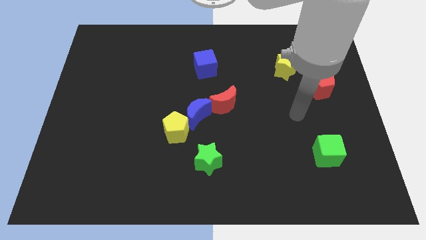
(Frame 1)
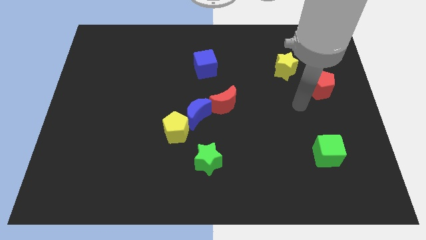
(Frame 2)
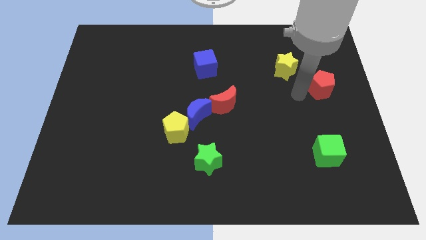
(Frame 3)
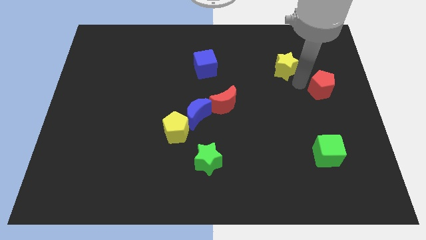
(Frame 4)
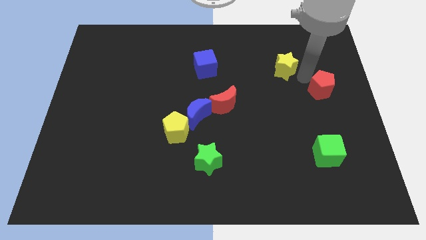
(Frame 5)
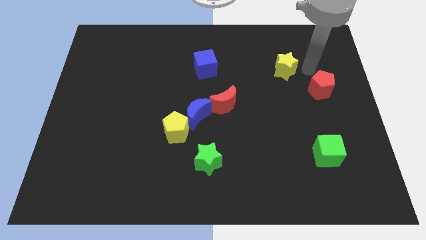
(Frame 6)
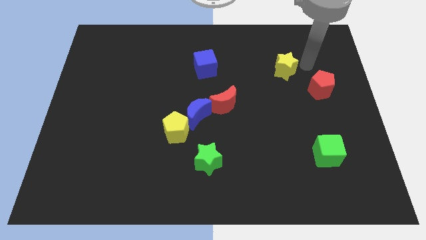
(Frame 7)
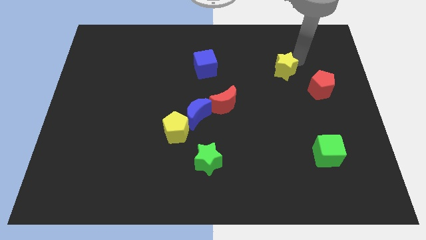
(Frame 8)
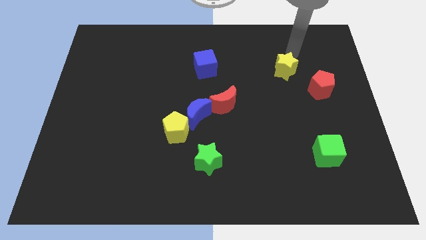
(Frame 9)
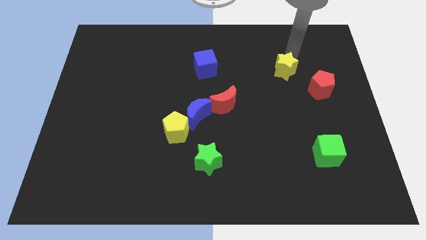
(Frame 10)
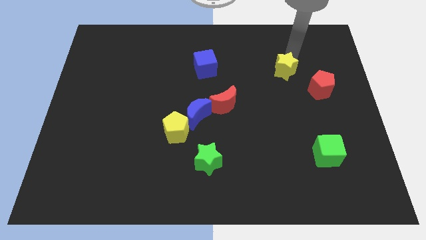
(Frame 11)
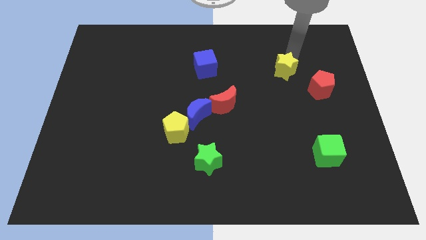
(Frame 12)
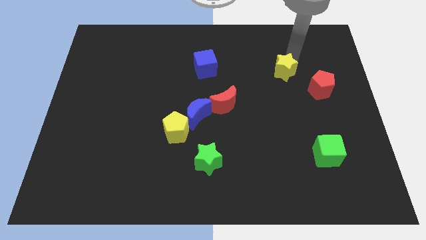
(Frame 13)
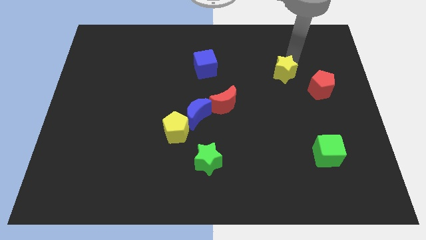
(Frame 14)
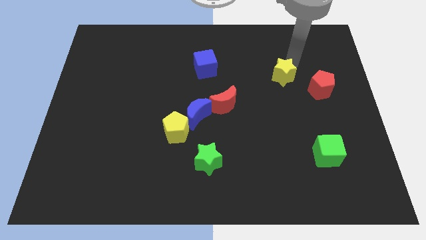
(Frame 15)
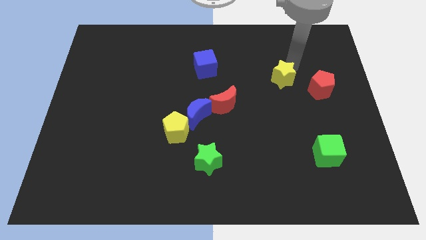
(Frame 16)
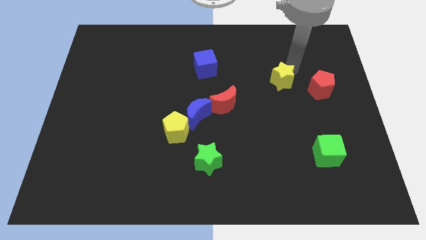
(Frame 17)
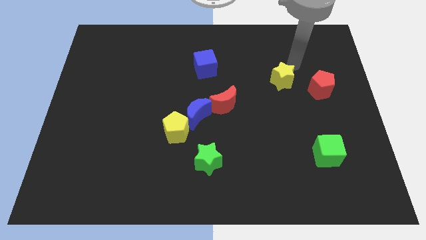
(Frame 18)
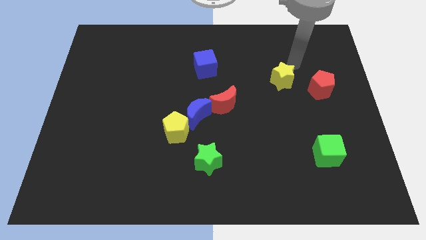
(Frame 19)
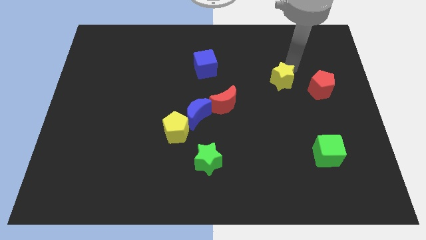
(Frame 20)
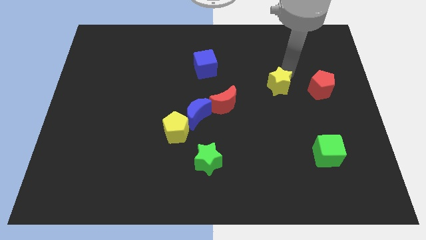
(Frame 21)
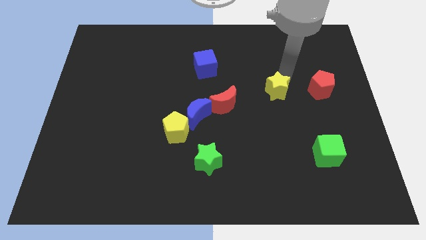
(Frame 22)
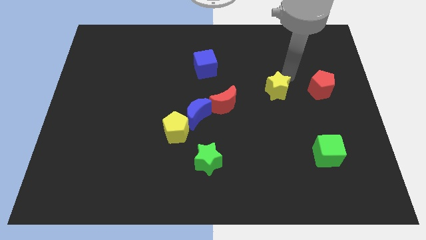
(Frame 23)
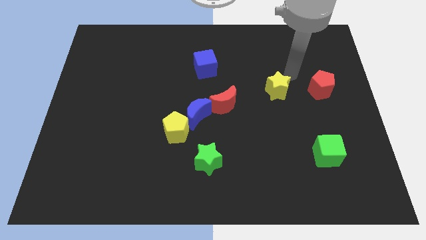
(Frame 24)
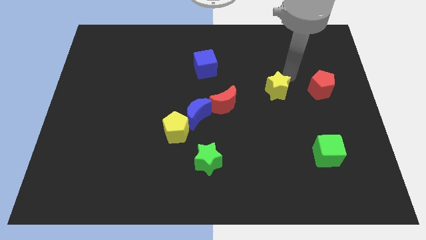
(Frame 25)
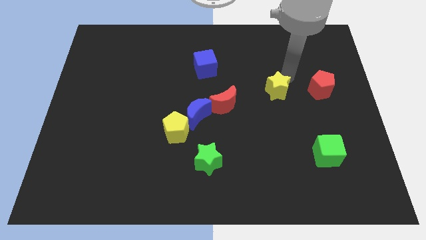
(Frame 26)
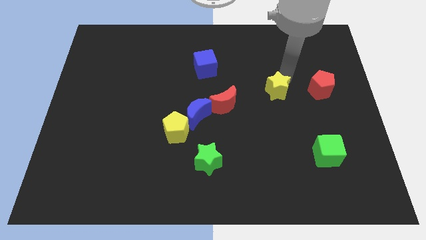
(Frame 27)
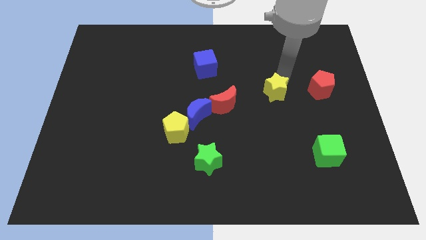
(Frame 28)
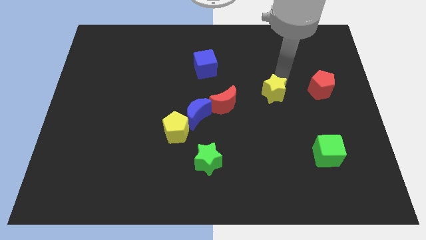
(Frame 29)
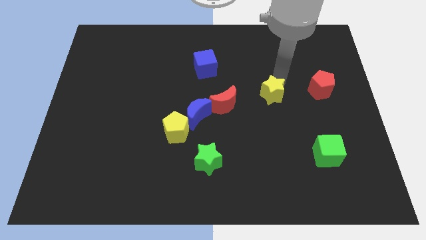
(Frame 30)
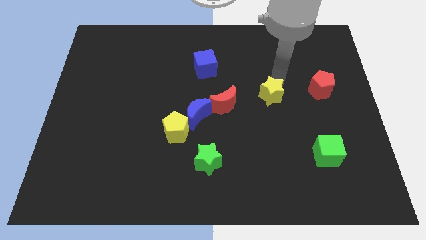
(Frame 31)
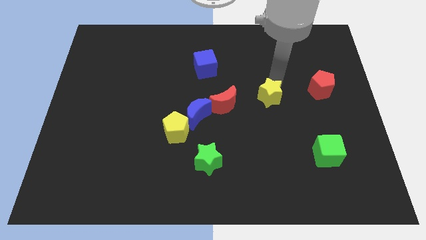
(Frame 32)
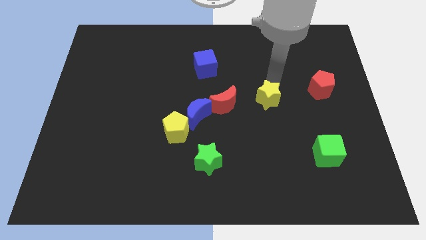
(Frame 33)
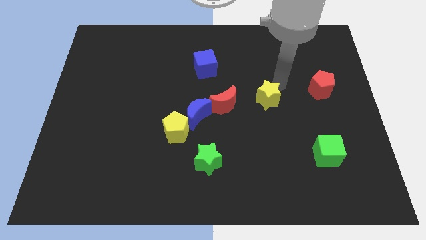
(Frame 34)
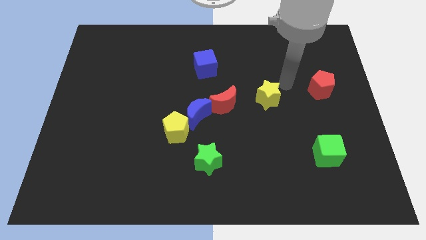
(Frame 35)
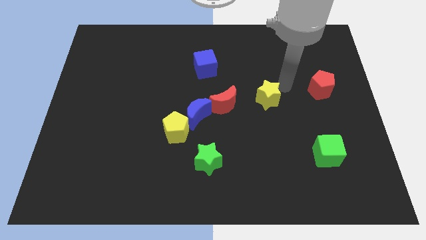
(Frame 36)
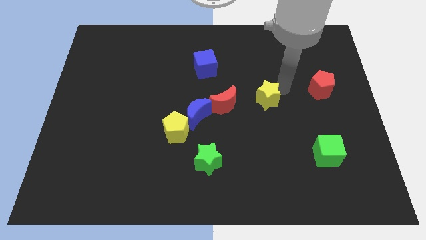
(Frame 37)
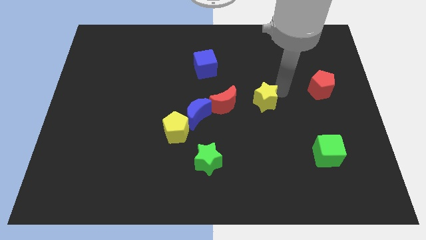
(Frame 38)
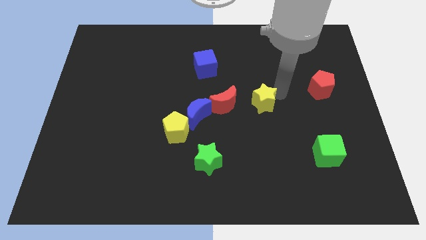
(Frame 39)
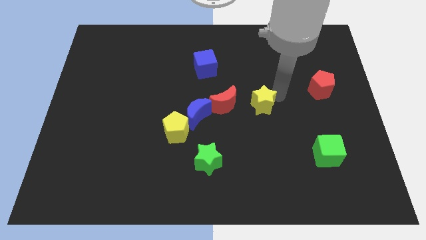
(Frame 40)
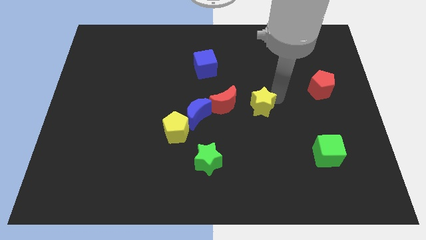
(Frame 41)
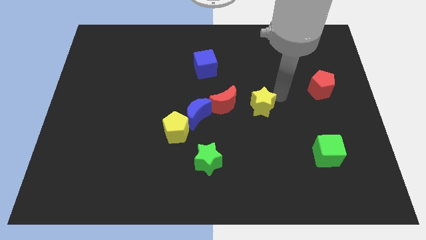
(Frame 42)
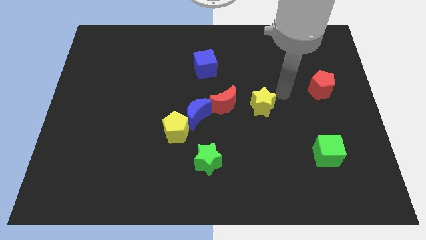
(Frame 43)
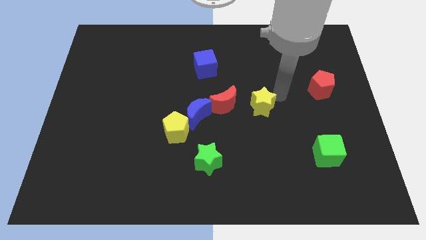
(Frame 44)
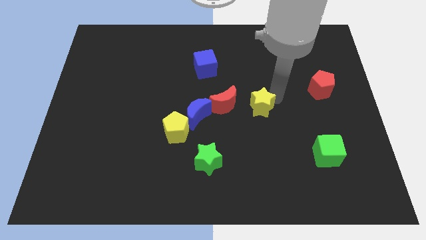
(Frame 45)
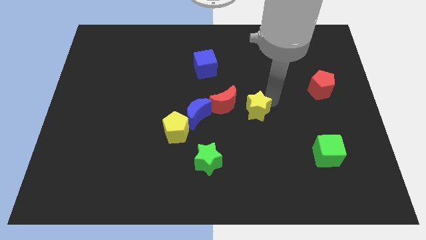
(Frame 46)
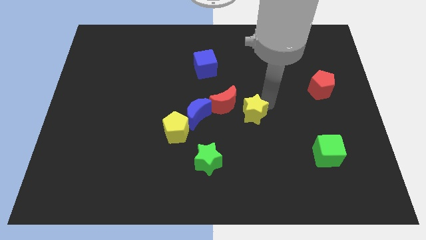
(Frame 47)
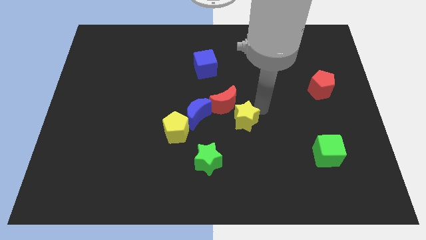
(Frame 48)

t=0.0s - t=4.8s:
put the yellow star to the right side of the yellow pentagon

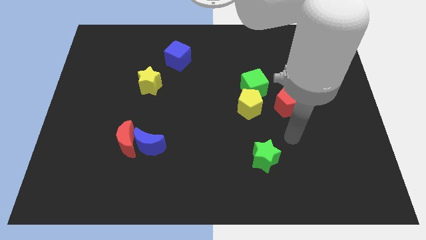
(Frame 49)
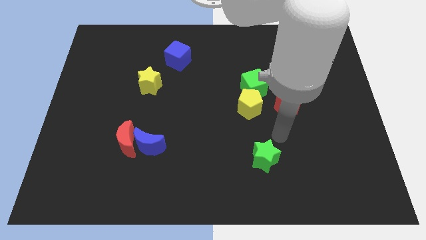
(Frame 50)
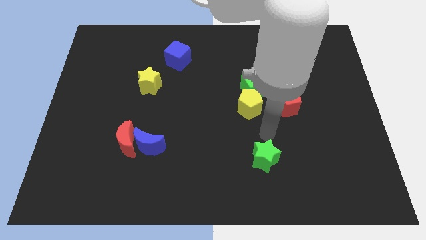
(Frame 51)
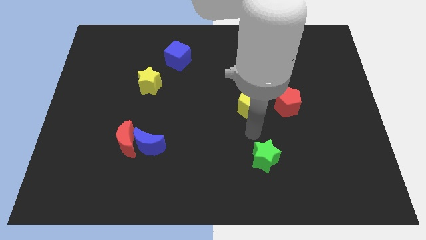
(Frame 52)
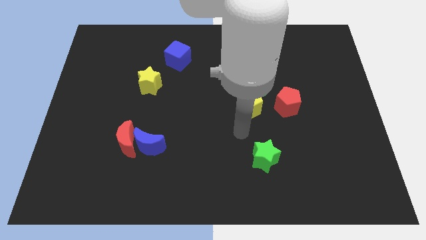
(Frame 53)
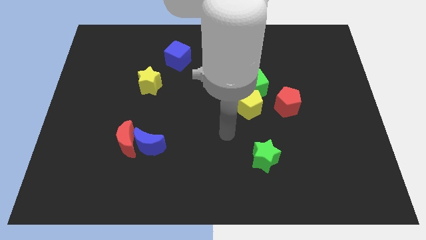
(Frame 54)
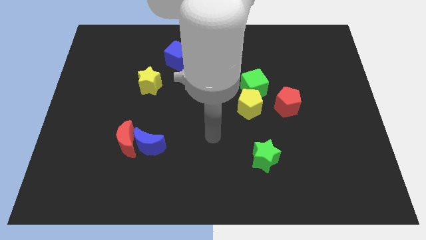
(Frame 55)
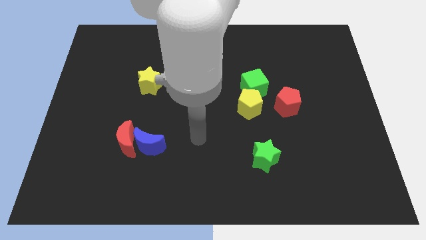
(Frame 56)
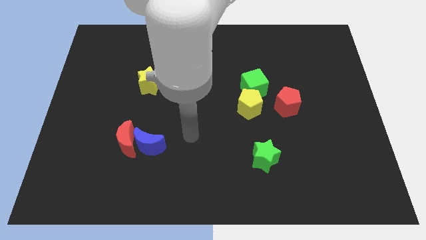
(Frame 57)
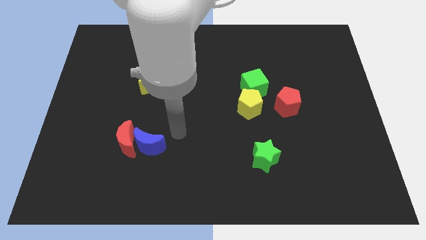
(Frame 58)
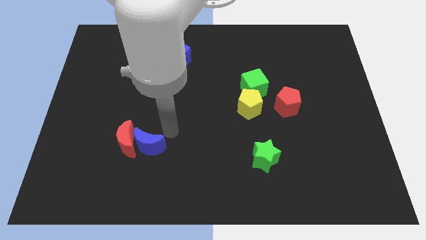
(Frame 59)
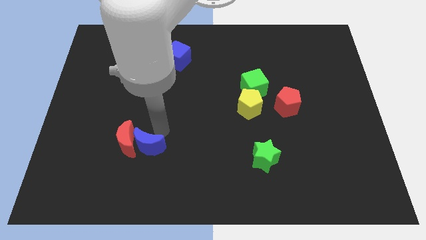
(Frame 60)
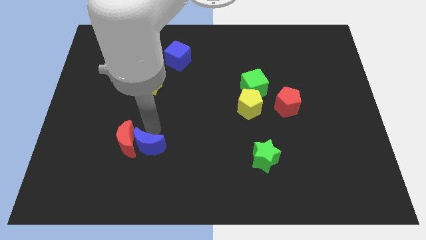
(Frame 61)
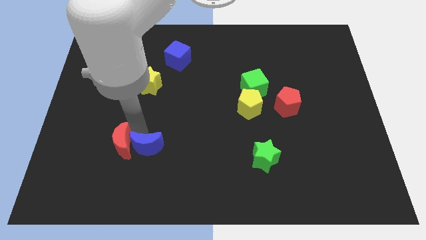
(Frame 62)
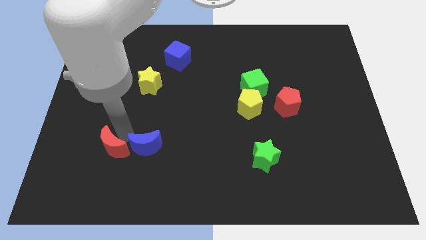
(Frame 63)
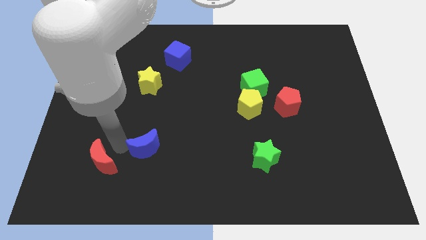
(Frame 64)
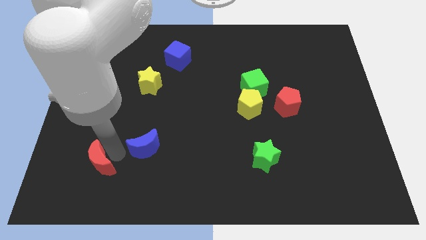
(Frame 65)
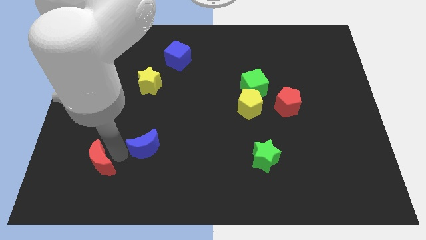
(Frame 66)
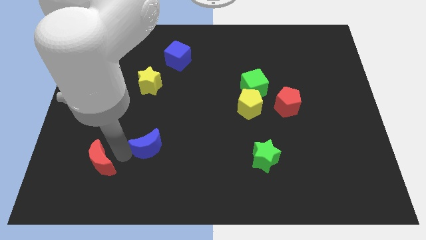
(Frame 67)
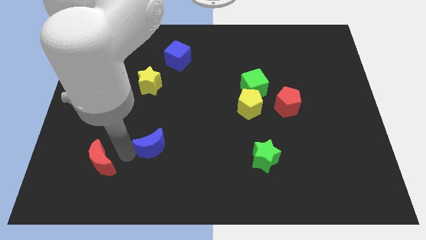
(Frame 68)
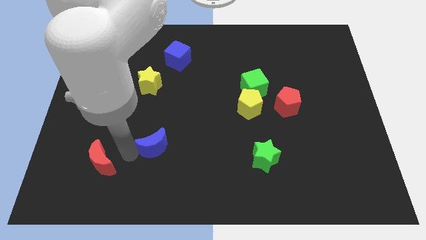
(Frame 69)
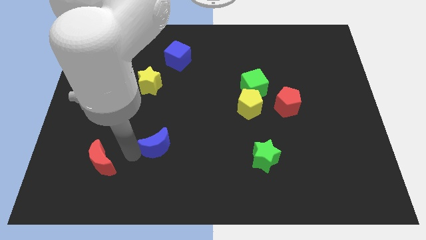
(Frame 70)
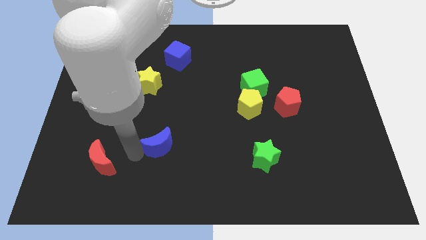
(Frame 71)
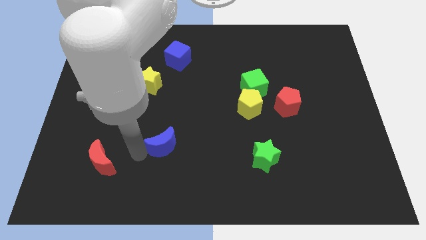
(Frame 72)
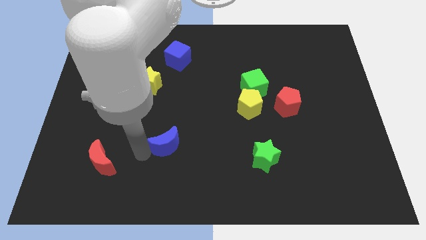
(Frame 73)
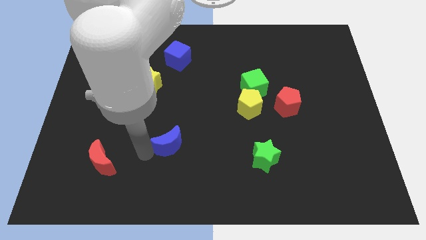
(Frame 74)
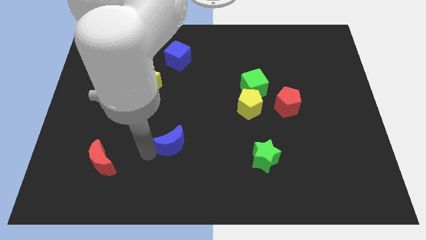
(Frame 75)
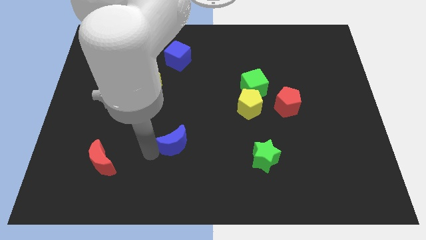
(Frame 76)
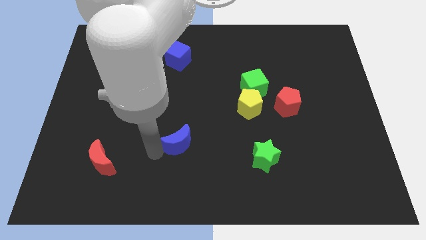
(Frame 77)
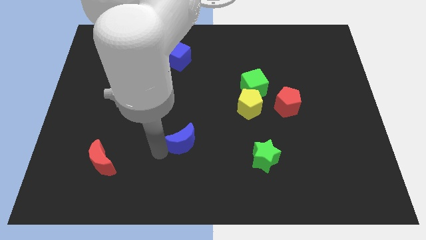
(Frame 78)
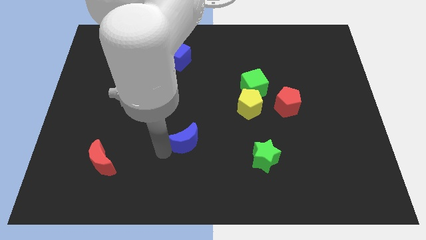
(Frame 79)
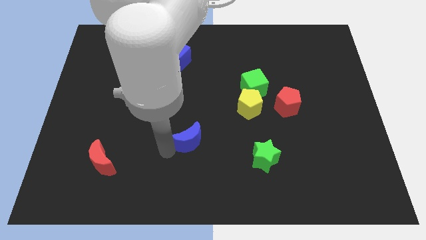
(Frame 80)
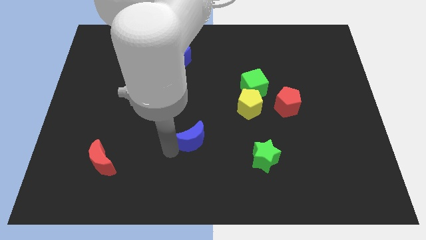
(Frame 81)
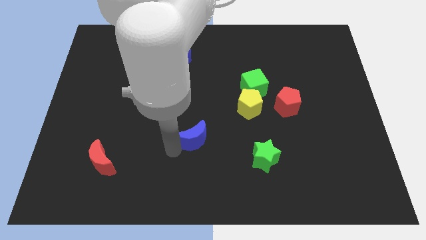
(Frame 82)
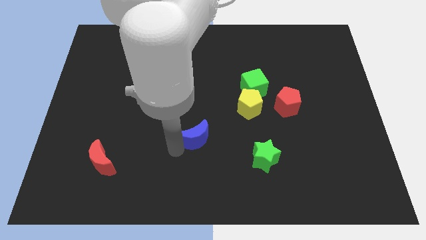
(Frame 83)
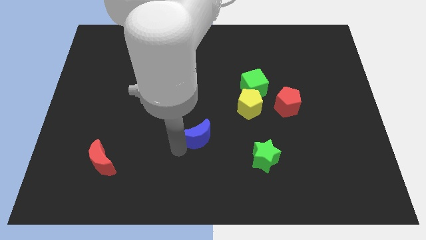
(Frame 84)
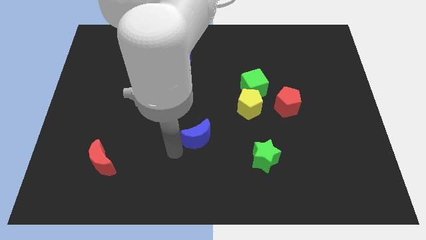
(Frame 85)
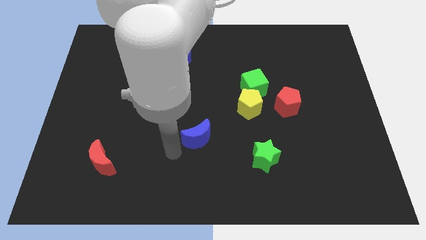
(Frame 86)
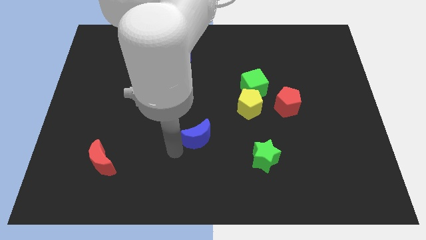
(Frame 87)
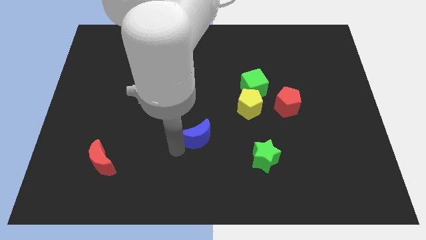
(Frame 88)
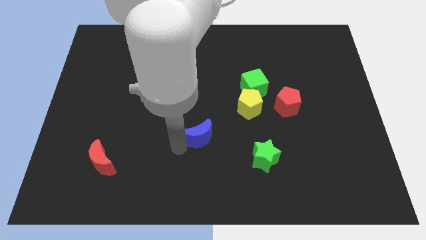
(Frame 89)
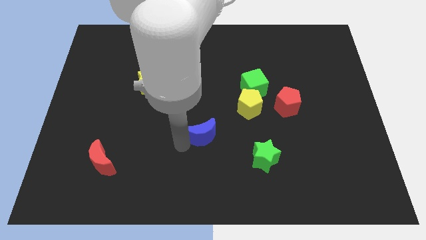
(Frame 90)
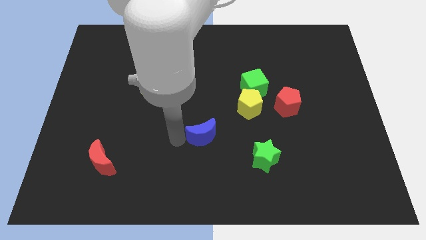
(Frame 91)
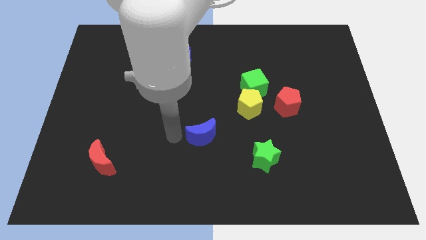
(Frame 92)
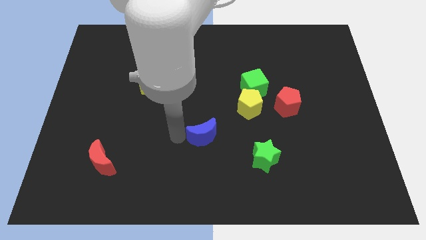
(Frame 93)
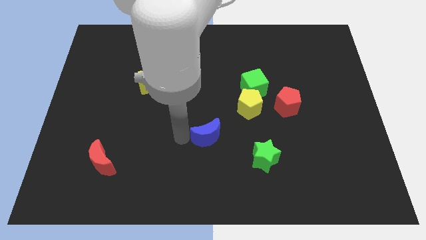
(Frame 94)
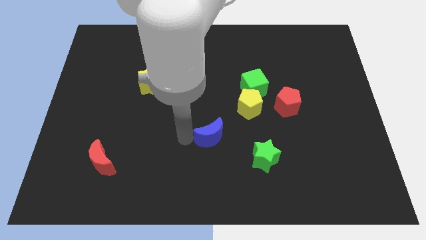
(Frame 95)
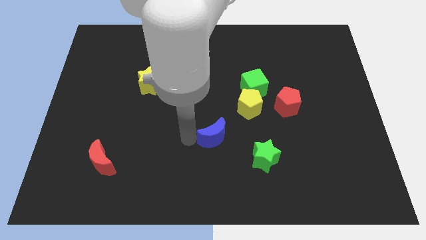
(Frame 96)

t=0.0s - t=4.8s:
slide the blue moon to the top left side of the green star
